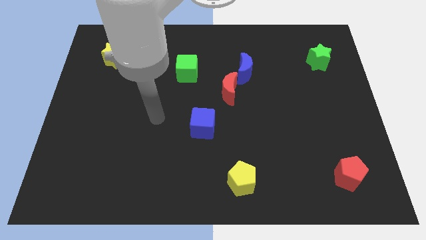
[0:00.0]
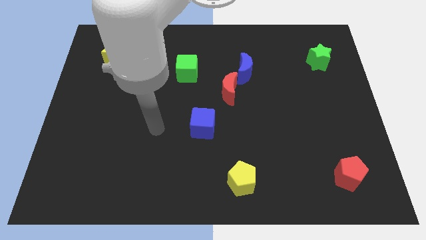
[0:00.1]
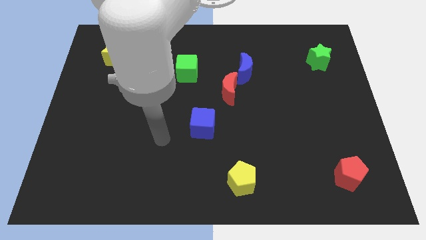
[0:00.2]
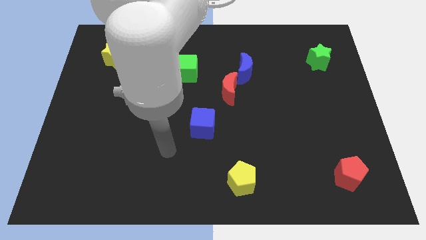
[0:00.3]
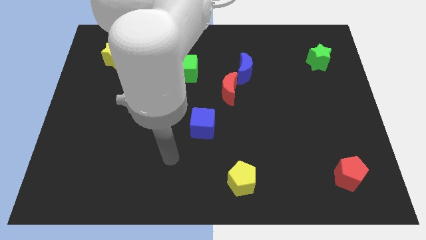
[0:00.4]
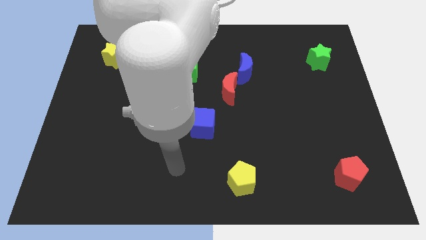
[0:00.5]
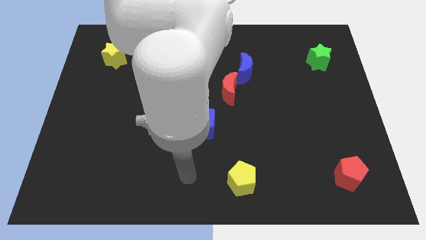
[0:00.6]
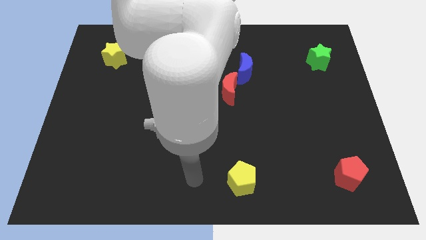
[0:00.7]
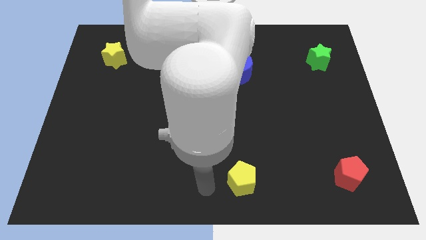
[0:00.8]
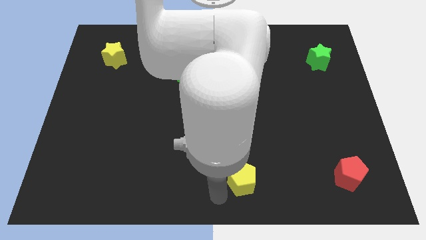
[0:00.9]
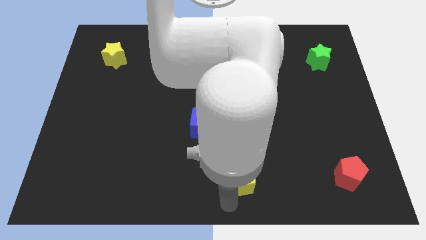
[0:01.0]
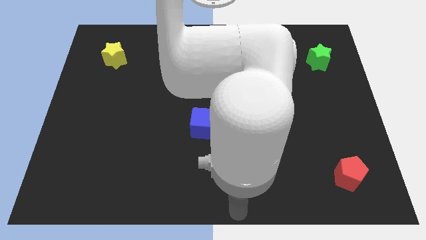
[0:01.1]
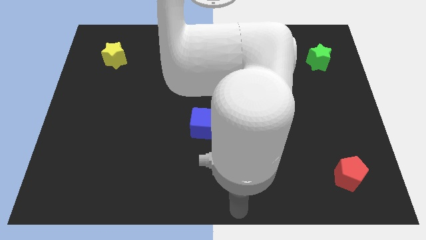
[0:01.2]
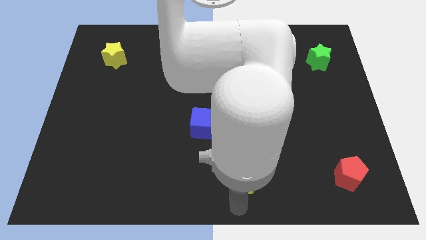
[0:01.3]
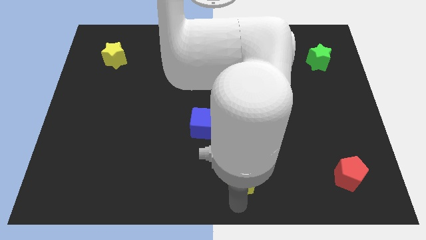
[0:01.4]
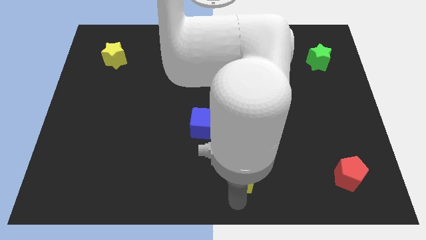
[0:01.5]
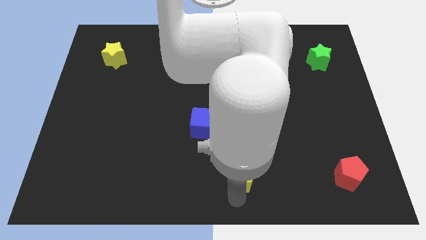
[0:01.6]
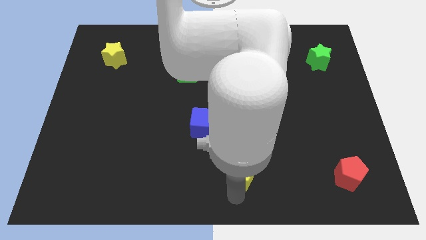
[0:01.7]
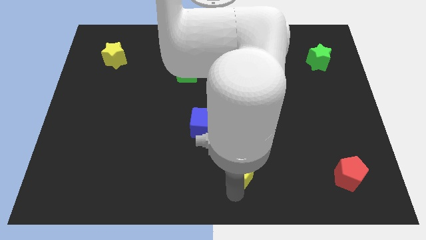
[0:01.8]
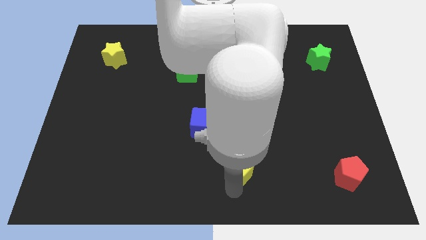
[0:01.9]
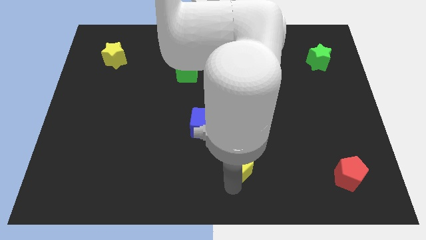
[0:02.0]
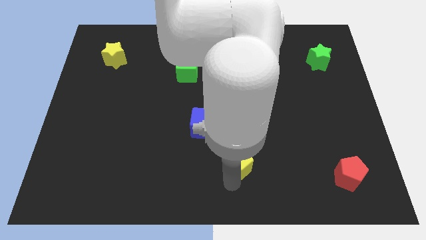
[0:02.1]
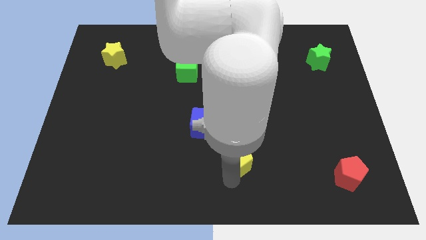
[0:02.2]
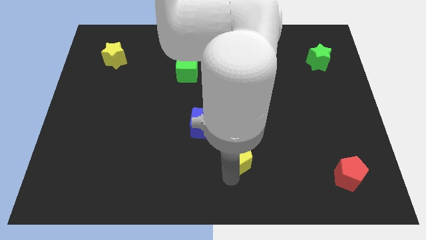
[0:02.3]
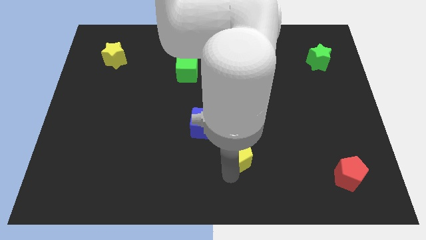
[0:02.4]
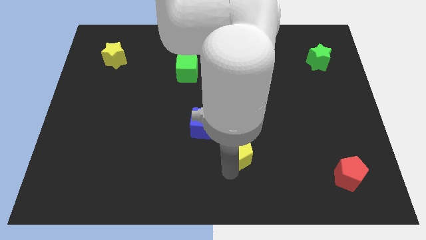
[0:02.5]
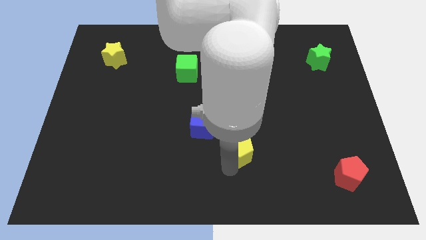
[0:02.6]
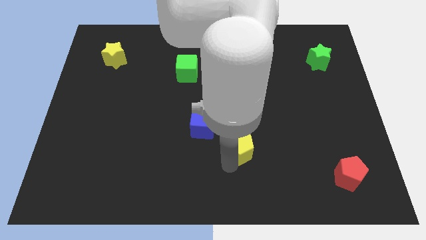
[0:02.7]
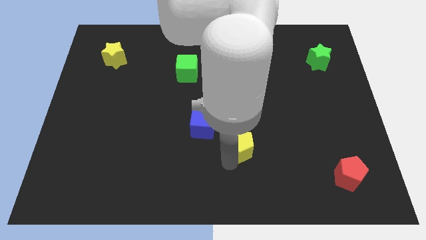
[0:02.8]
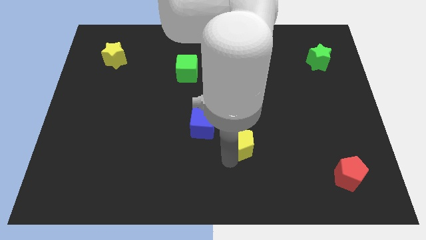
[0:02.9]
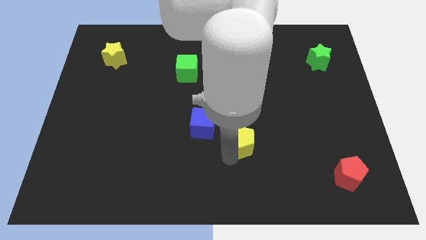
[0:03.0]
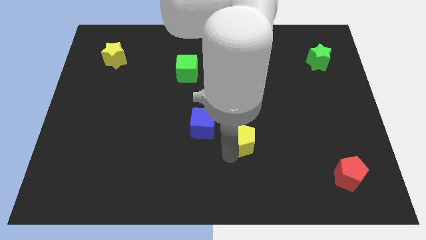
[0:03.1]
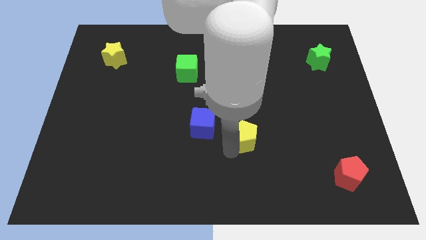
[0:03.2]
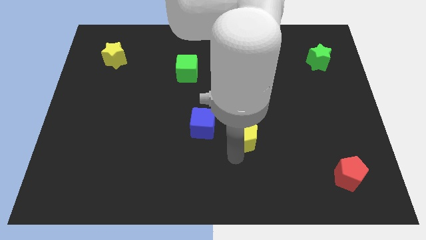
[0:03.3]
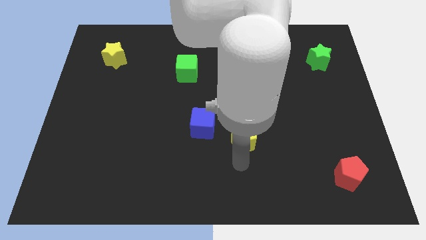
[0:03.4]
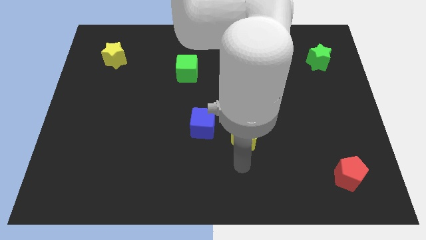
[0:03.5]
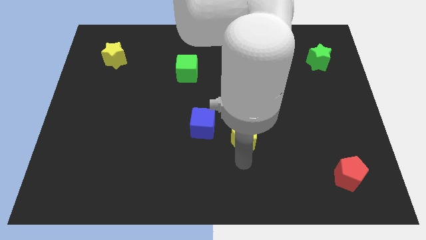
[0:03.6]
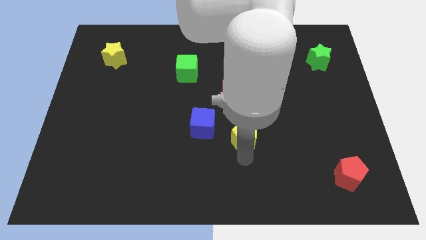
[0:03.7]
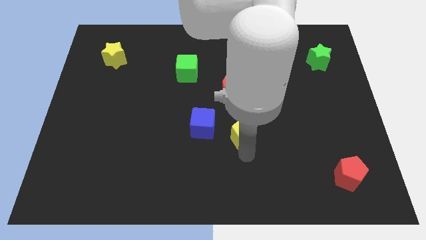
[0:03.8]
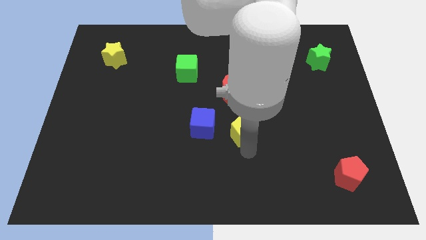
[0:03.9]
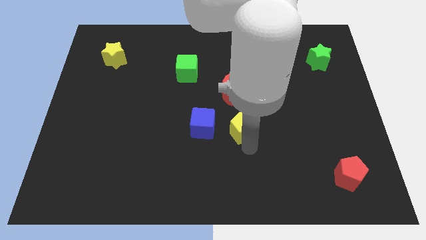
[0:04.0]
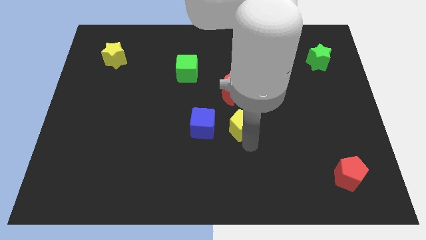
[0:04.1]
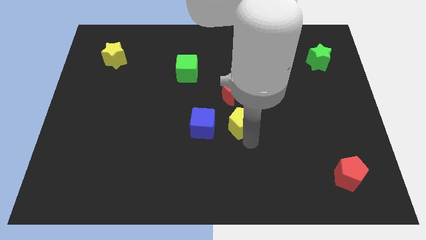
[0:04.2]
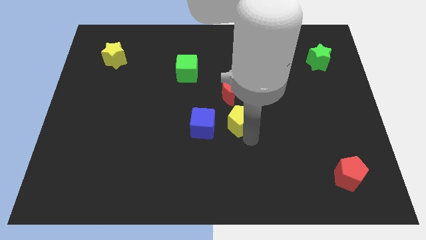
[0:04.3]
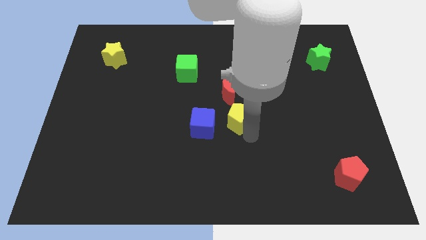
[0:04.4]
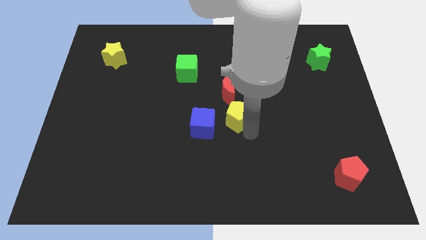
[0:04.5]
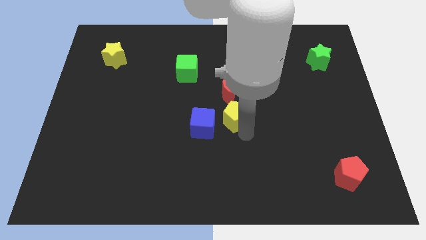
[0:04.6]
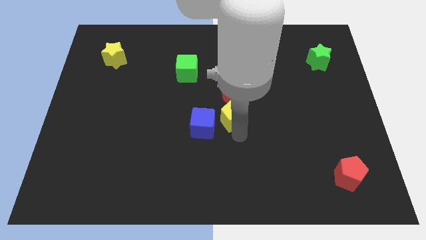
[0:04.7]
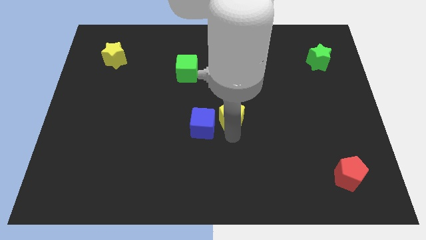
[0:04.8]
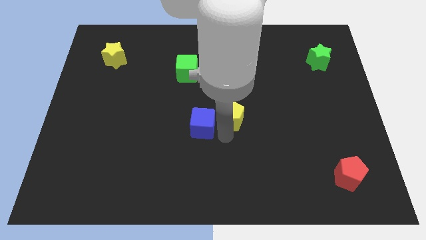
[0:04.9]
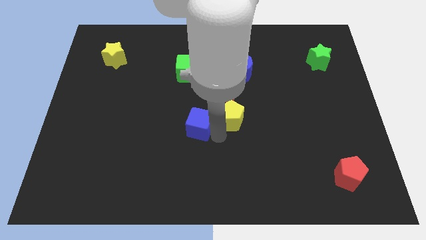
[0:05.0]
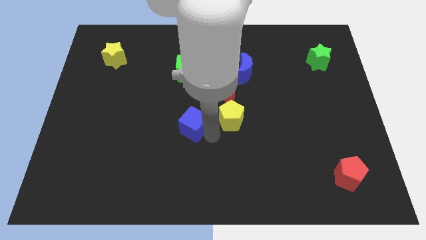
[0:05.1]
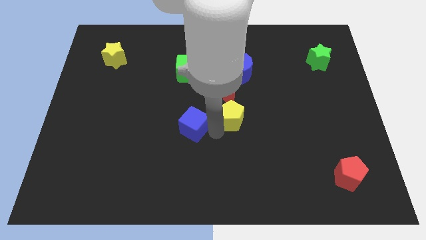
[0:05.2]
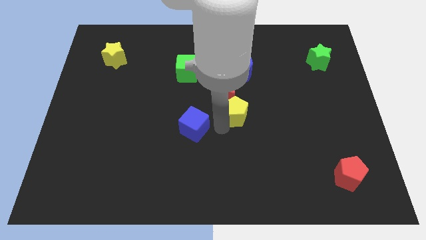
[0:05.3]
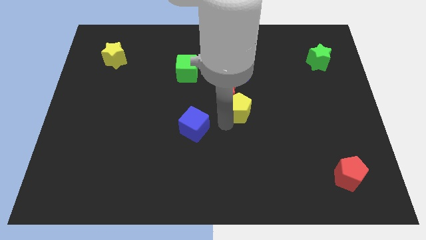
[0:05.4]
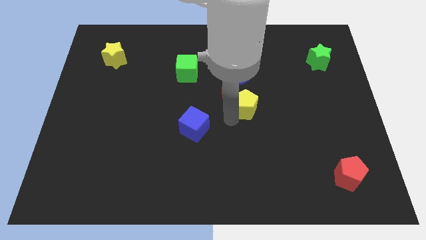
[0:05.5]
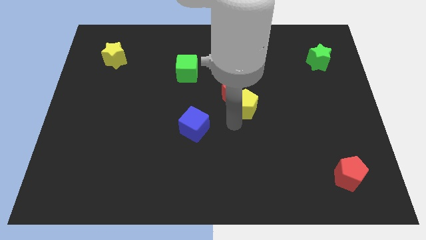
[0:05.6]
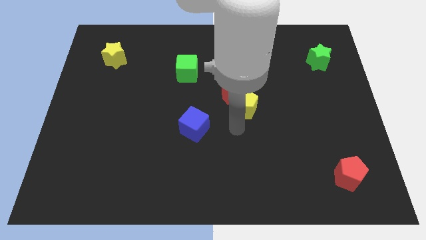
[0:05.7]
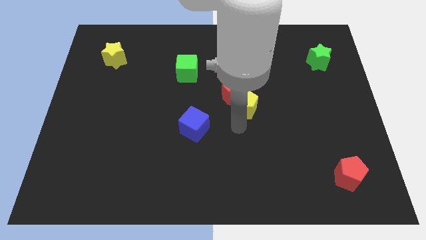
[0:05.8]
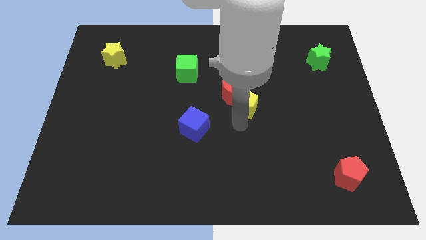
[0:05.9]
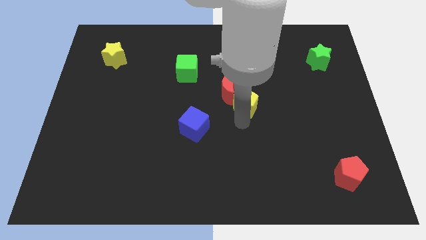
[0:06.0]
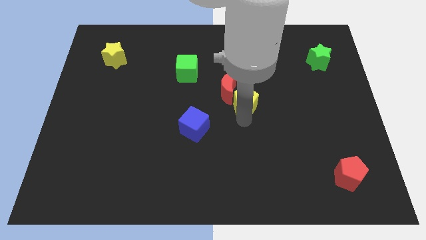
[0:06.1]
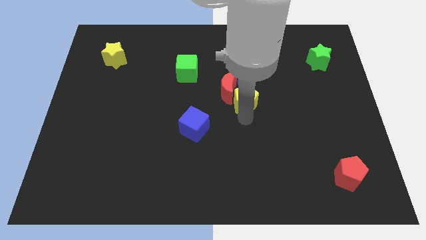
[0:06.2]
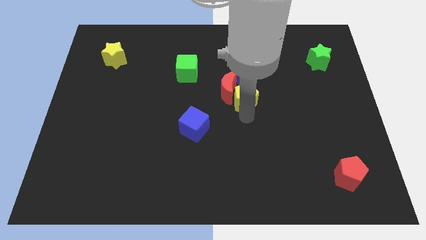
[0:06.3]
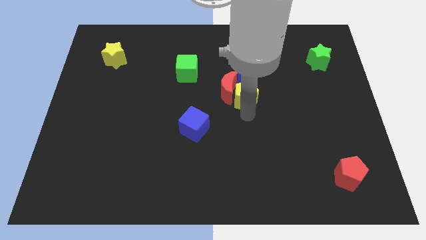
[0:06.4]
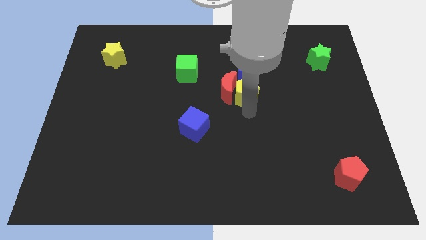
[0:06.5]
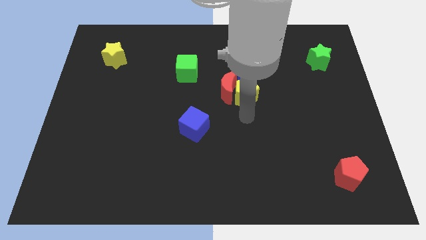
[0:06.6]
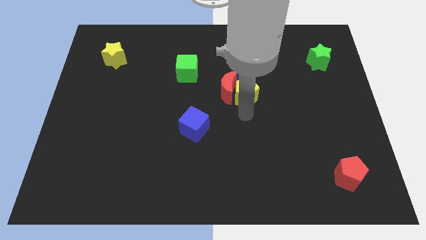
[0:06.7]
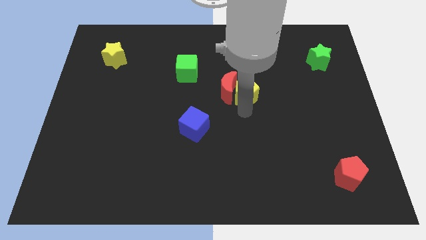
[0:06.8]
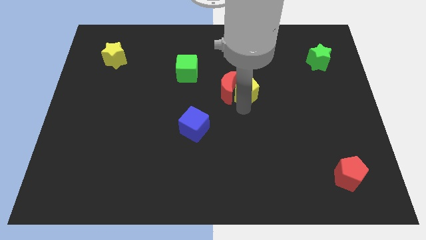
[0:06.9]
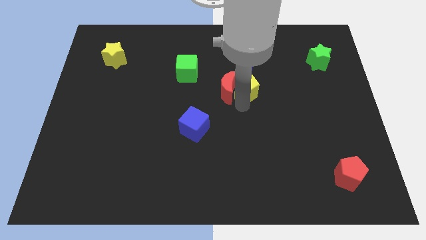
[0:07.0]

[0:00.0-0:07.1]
push the yellow pentagon close to the blue moon

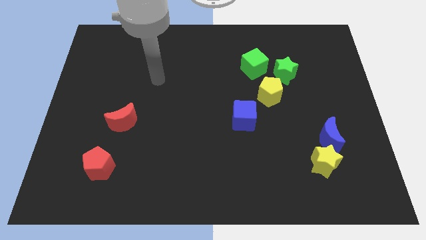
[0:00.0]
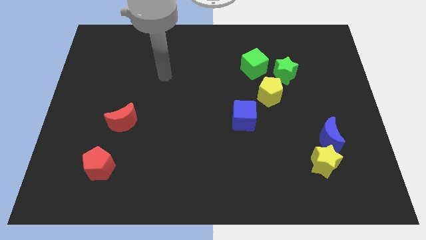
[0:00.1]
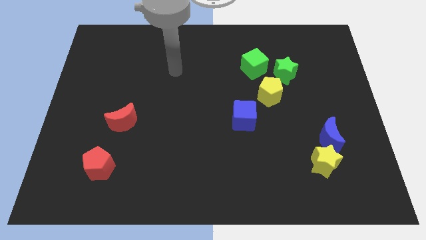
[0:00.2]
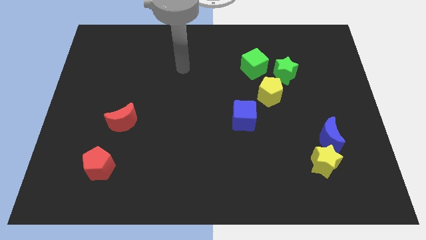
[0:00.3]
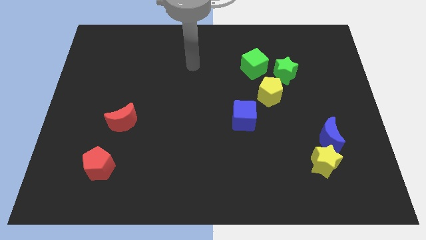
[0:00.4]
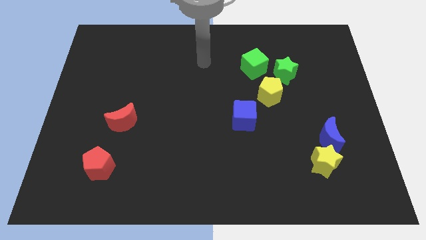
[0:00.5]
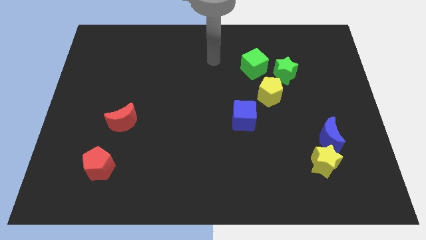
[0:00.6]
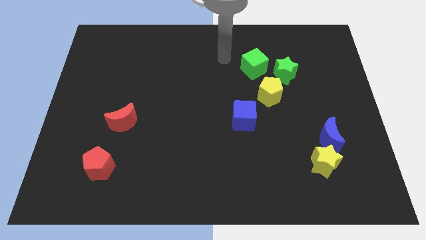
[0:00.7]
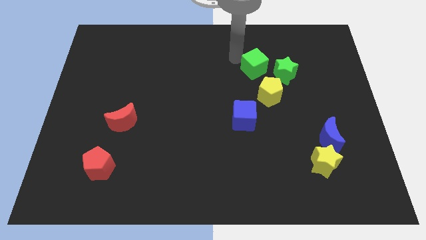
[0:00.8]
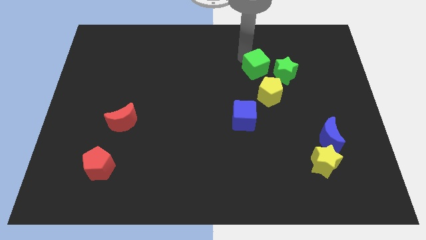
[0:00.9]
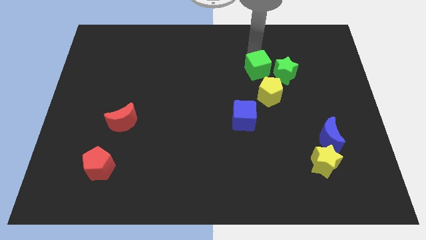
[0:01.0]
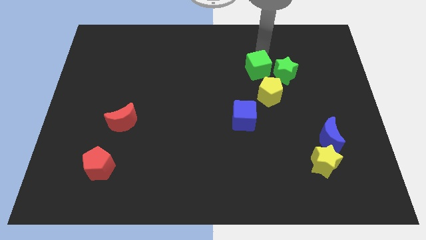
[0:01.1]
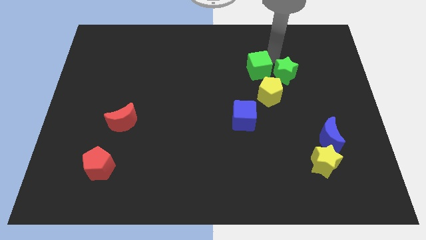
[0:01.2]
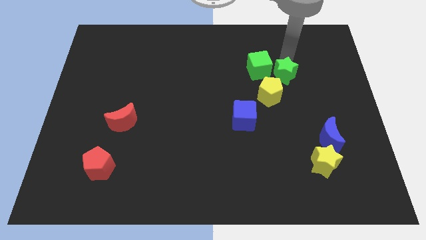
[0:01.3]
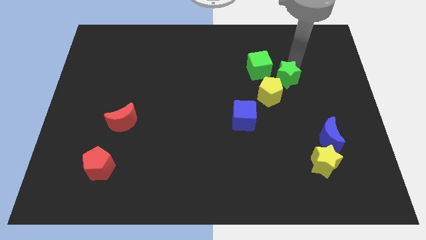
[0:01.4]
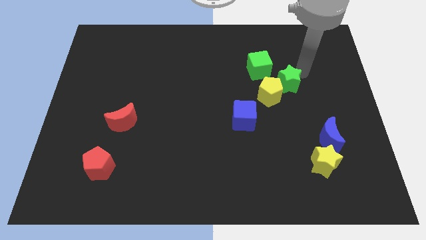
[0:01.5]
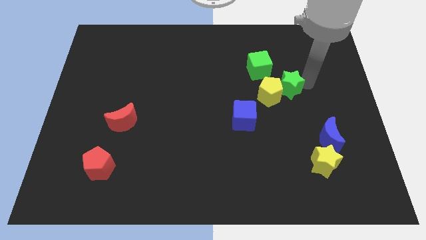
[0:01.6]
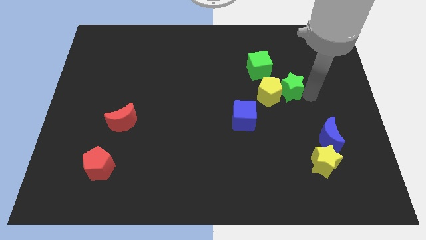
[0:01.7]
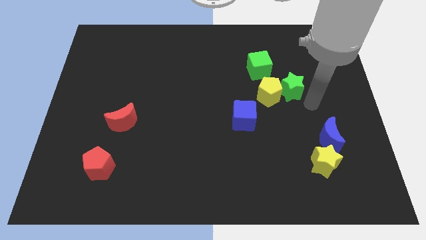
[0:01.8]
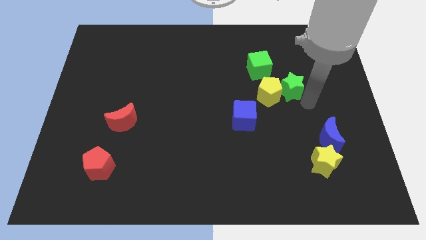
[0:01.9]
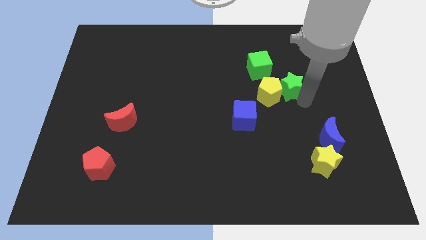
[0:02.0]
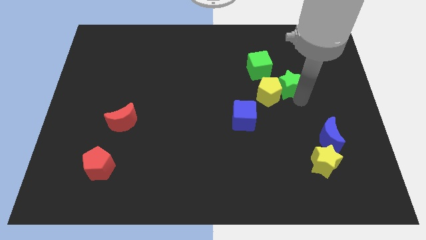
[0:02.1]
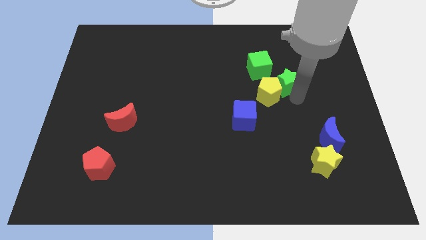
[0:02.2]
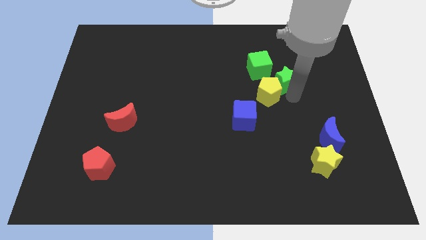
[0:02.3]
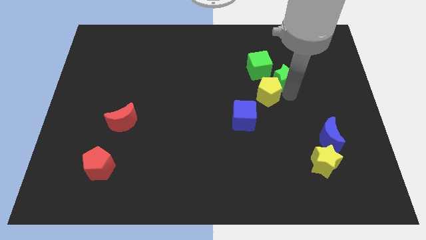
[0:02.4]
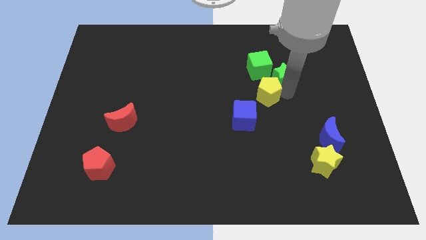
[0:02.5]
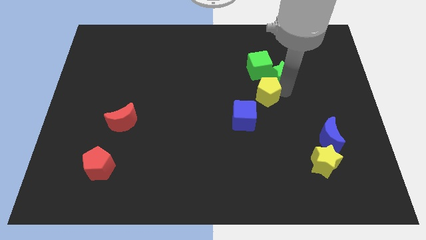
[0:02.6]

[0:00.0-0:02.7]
push the green star close to the green cube
